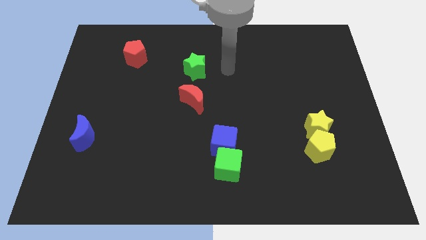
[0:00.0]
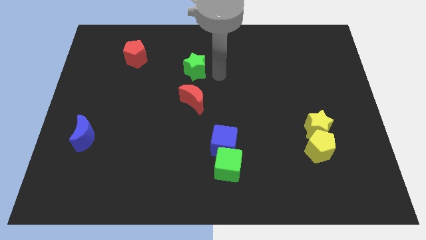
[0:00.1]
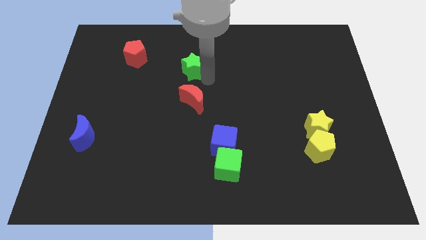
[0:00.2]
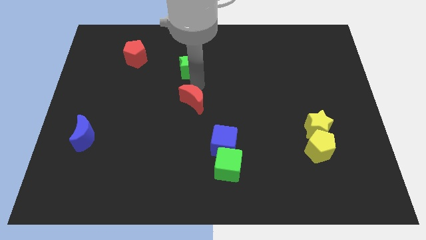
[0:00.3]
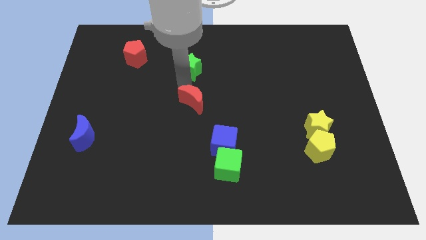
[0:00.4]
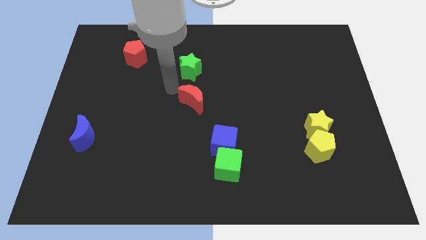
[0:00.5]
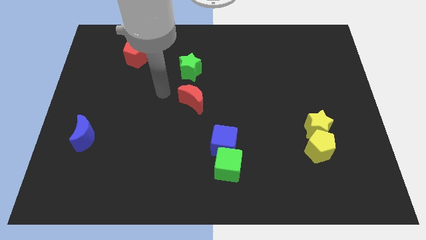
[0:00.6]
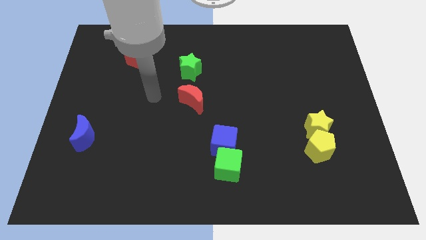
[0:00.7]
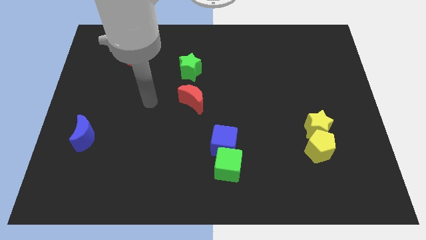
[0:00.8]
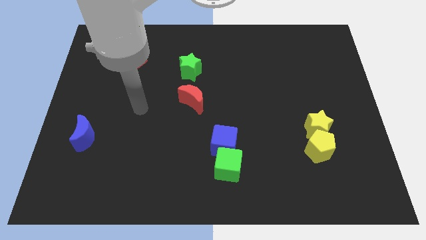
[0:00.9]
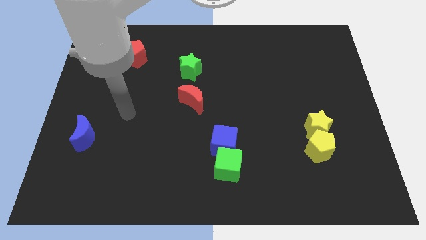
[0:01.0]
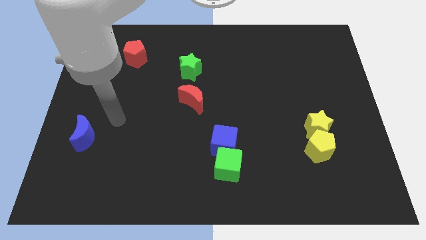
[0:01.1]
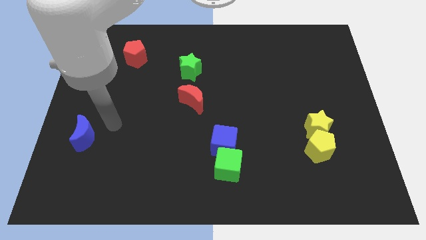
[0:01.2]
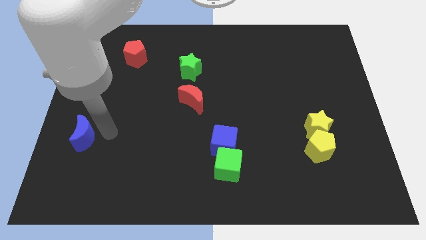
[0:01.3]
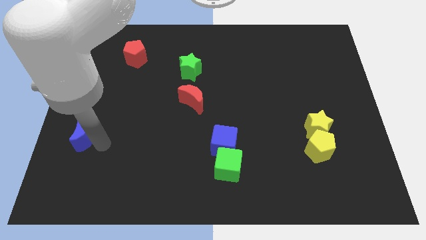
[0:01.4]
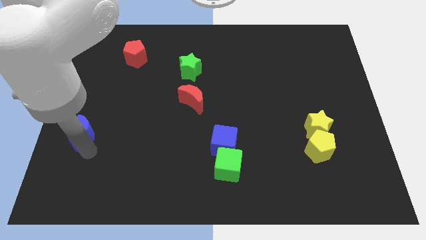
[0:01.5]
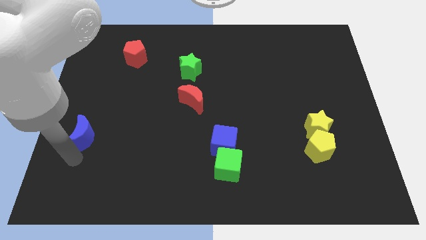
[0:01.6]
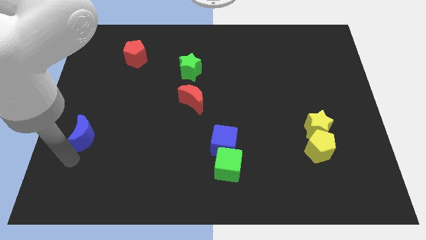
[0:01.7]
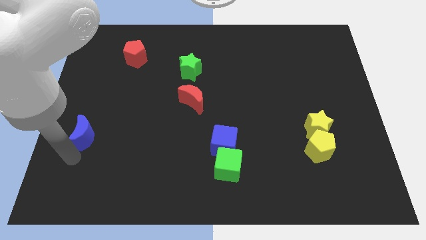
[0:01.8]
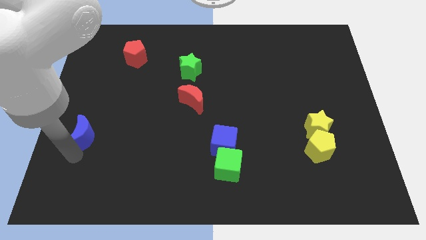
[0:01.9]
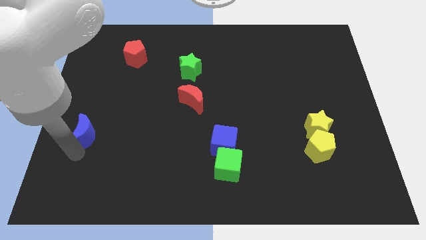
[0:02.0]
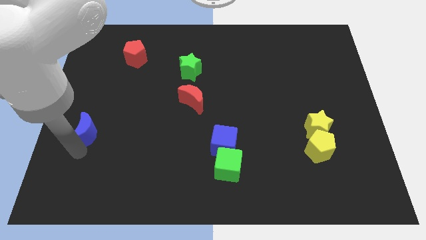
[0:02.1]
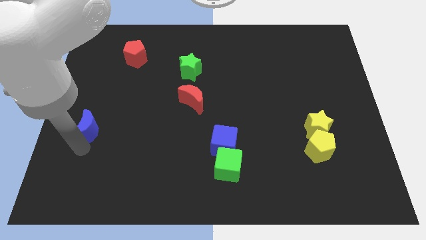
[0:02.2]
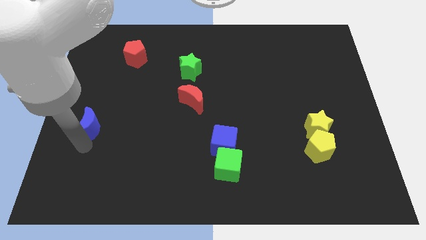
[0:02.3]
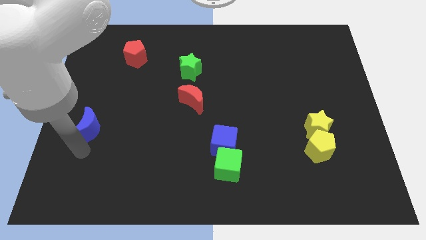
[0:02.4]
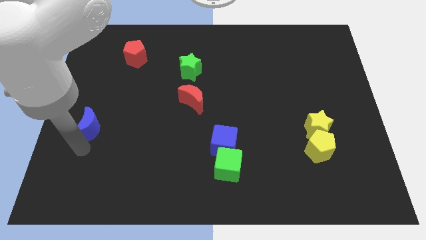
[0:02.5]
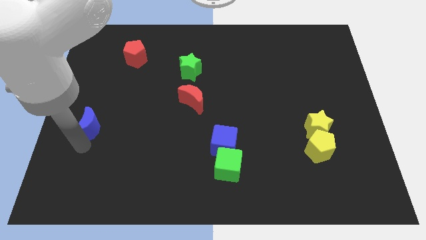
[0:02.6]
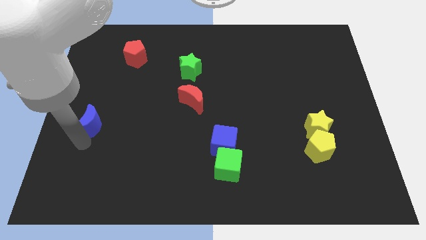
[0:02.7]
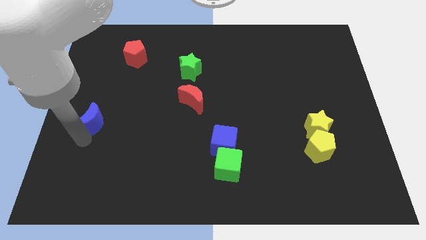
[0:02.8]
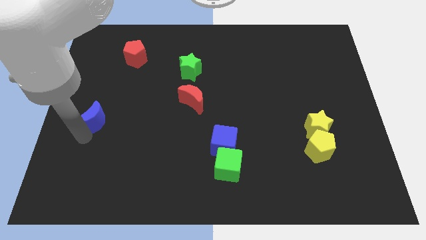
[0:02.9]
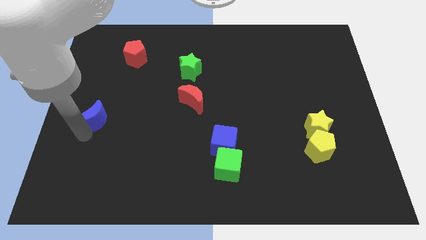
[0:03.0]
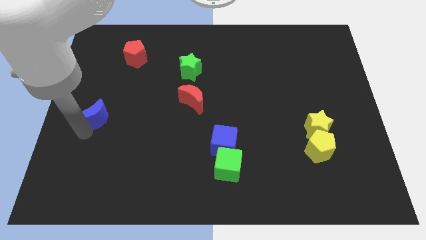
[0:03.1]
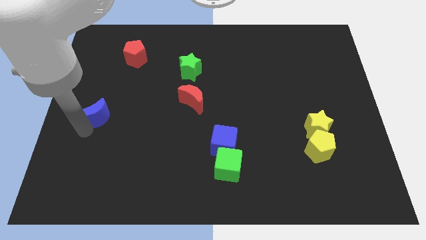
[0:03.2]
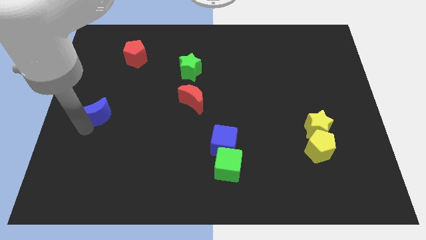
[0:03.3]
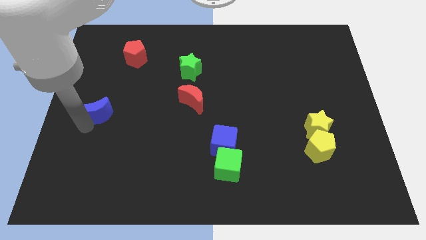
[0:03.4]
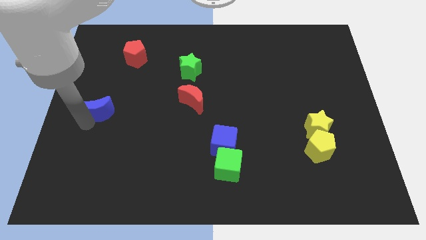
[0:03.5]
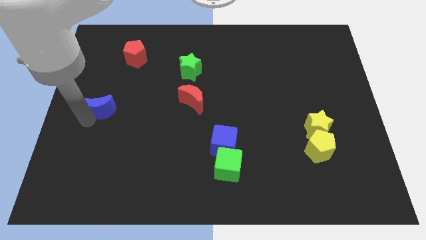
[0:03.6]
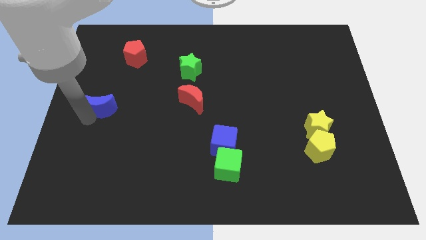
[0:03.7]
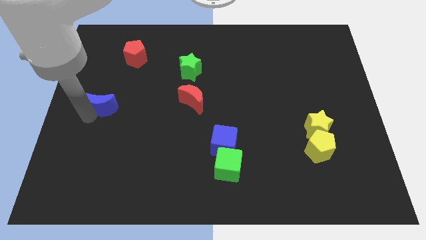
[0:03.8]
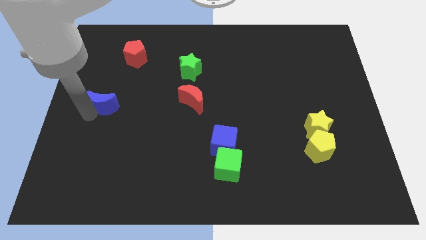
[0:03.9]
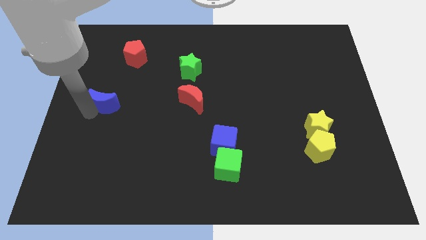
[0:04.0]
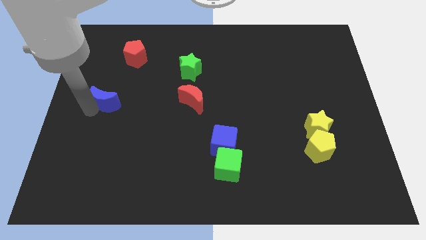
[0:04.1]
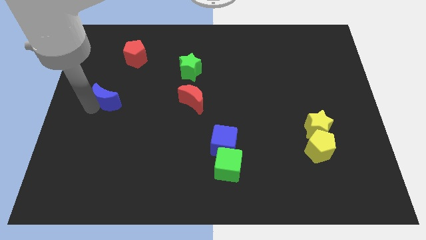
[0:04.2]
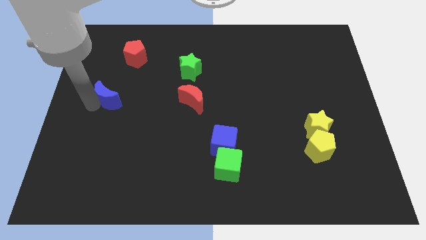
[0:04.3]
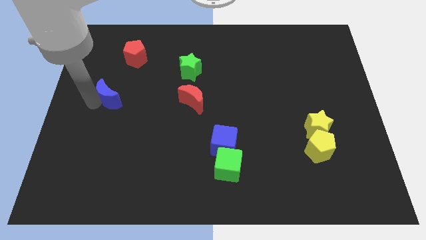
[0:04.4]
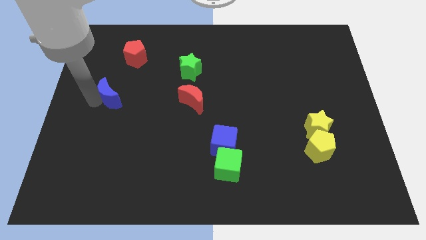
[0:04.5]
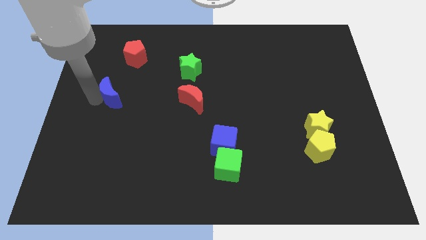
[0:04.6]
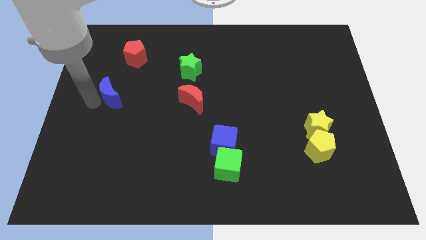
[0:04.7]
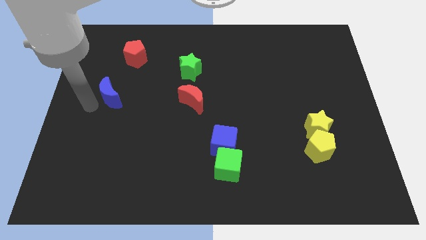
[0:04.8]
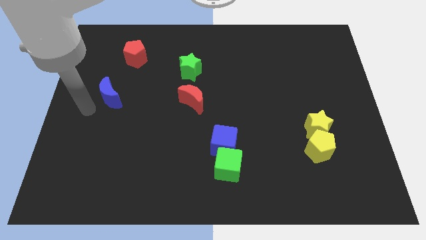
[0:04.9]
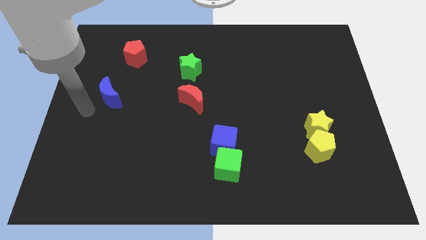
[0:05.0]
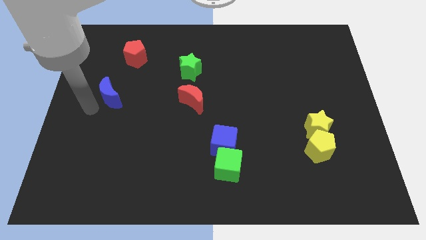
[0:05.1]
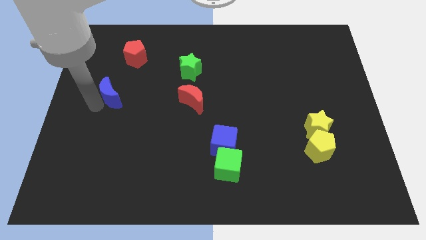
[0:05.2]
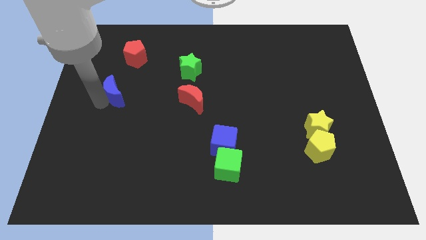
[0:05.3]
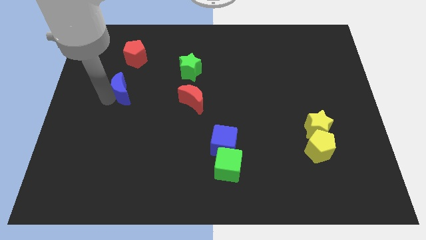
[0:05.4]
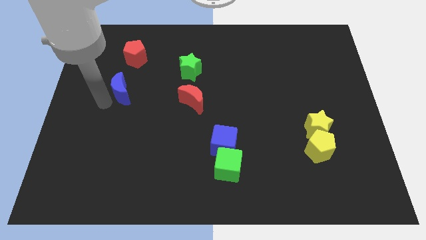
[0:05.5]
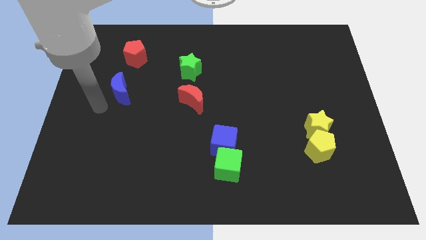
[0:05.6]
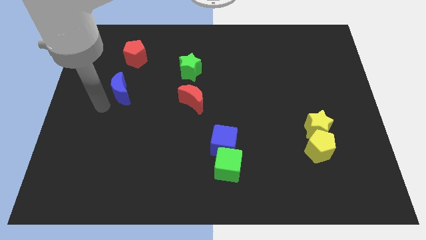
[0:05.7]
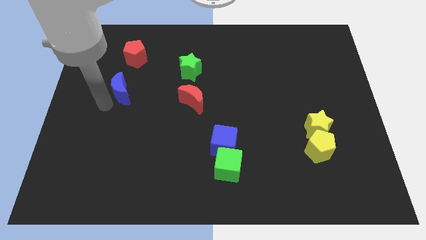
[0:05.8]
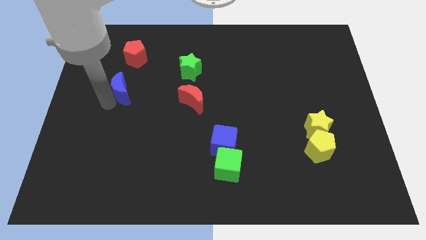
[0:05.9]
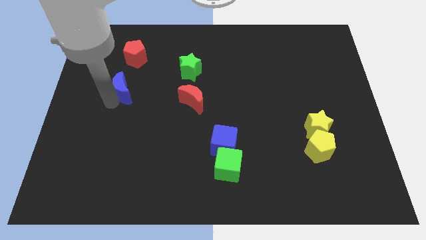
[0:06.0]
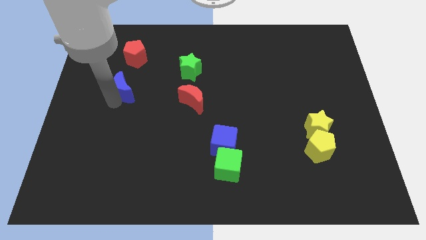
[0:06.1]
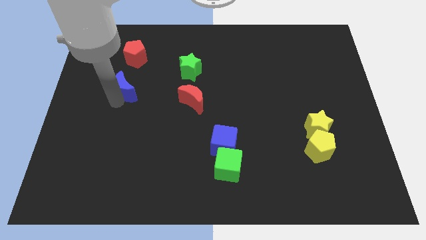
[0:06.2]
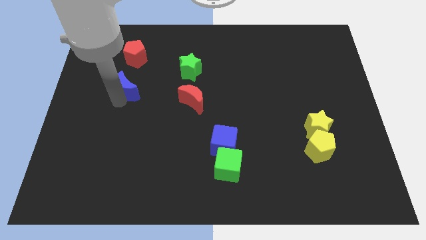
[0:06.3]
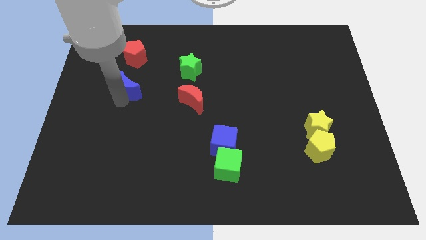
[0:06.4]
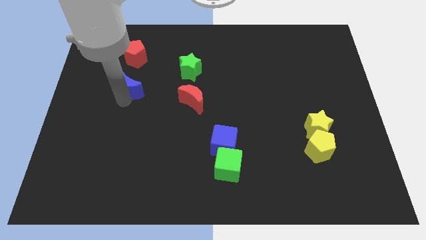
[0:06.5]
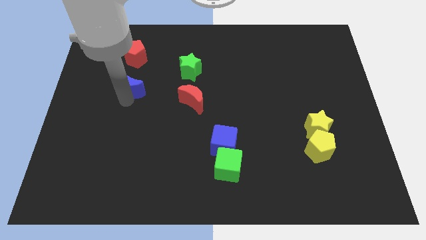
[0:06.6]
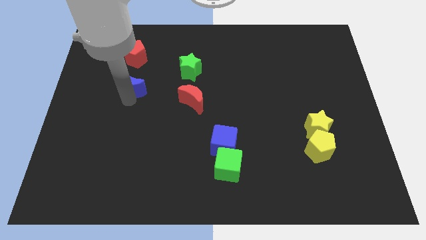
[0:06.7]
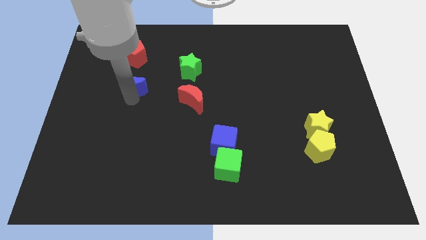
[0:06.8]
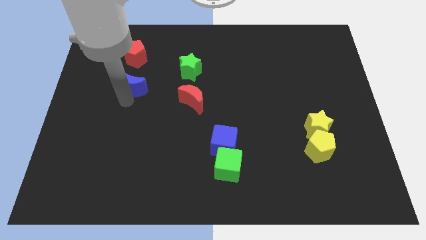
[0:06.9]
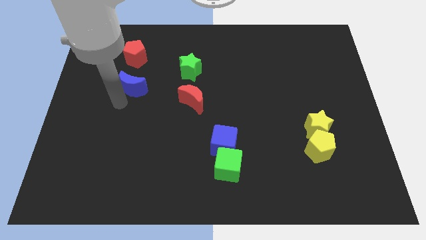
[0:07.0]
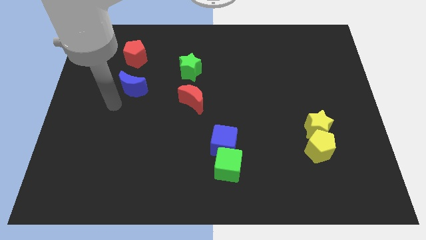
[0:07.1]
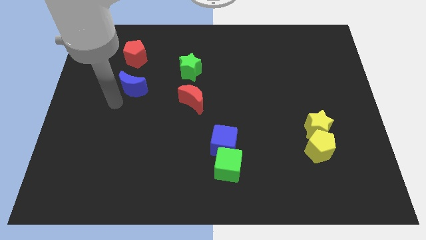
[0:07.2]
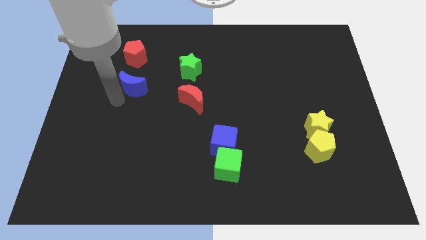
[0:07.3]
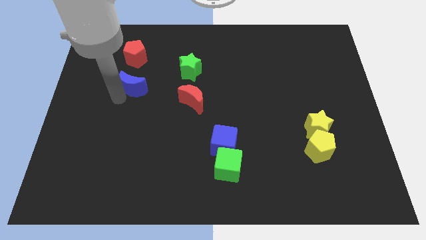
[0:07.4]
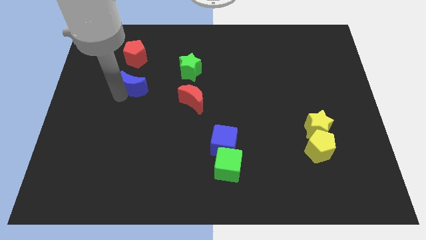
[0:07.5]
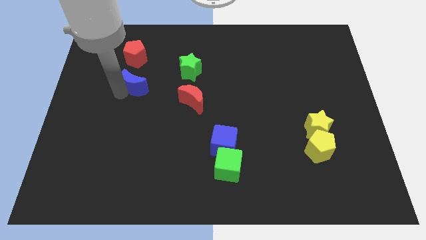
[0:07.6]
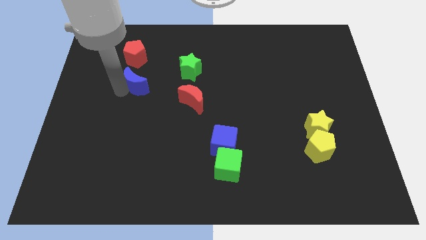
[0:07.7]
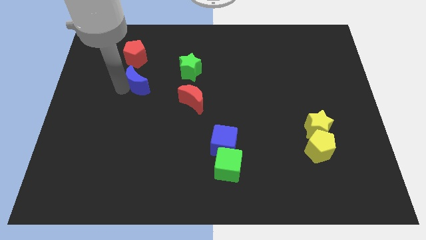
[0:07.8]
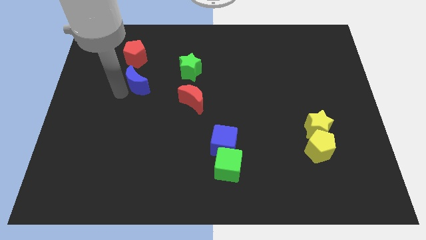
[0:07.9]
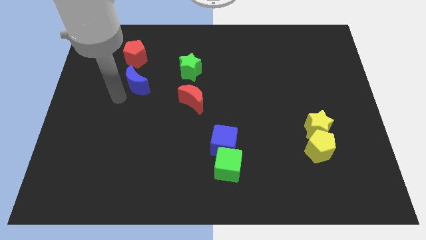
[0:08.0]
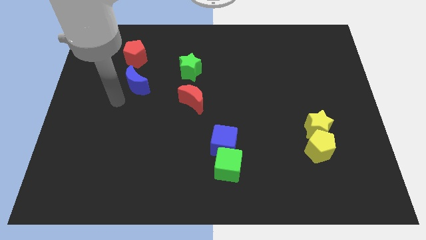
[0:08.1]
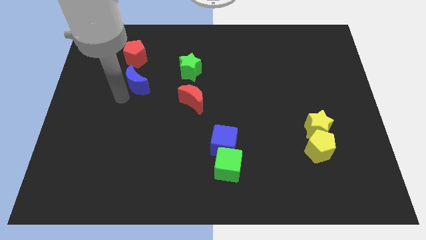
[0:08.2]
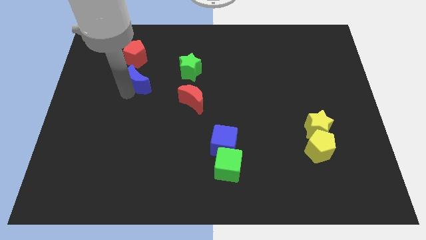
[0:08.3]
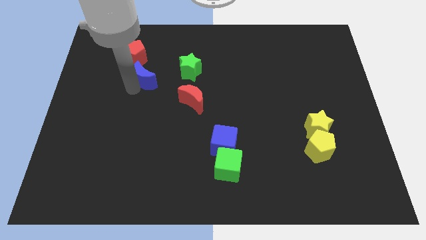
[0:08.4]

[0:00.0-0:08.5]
put the blue moon to the bottom right side of the red pentagon
